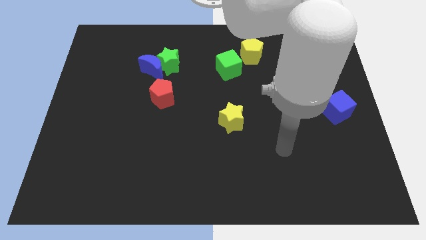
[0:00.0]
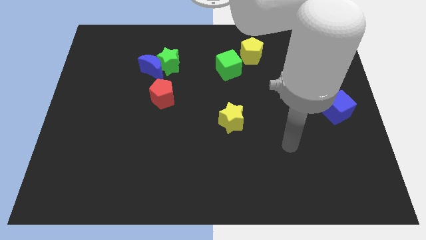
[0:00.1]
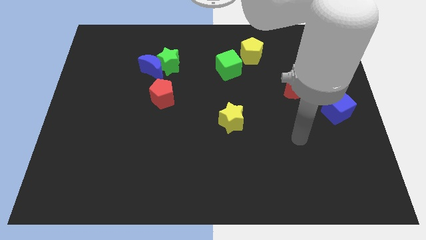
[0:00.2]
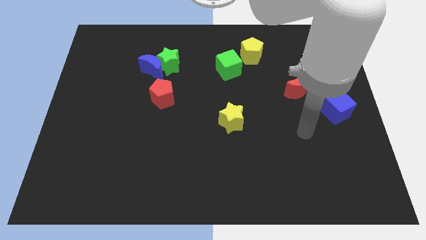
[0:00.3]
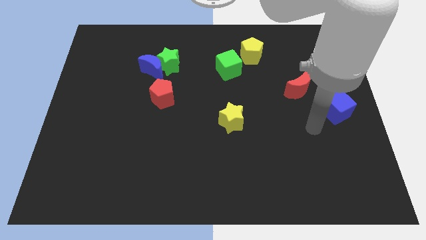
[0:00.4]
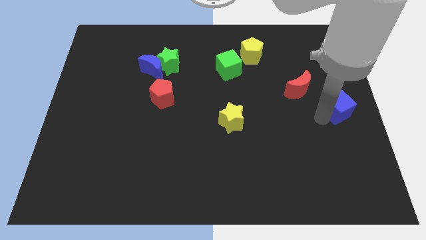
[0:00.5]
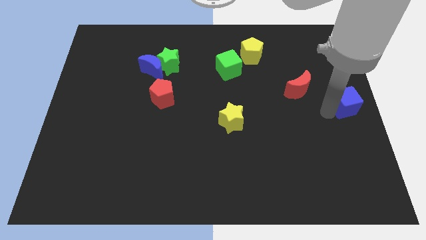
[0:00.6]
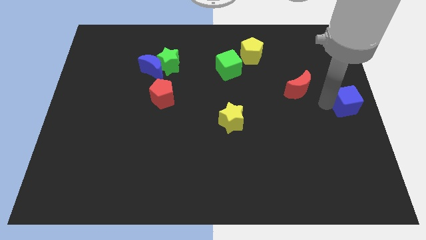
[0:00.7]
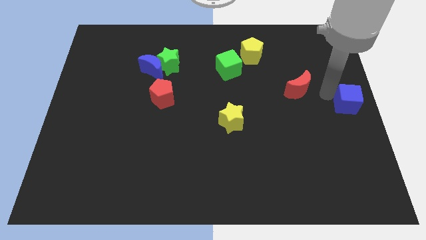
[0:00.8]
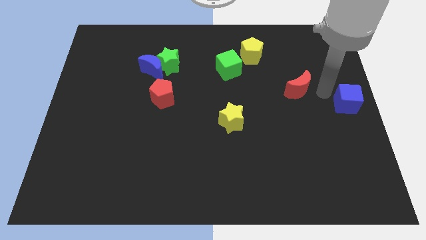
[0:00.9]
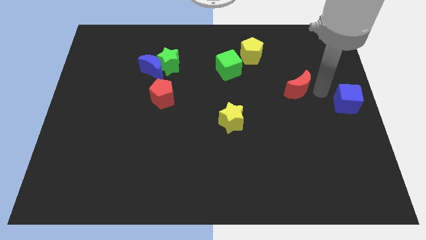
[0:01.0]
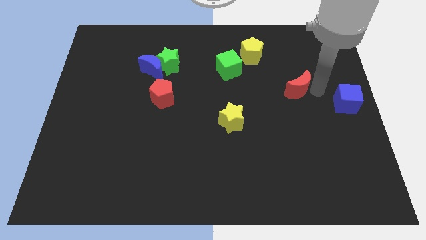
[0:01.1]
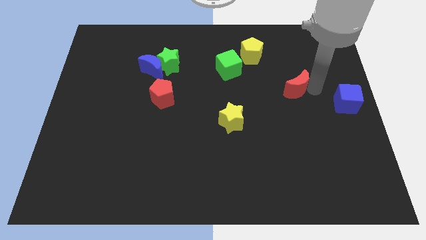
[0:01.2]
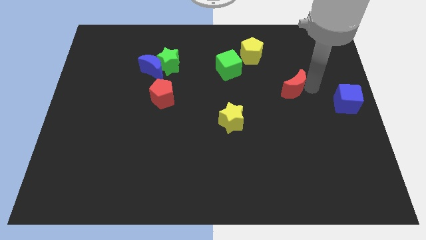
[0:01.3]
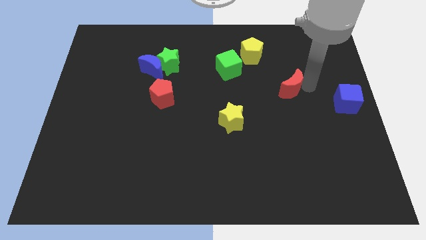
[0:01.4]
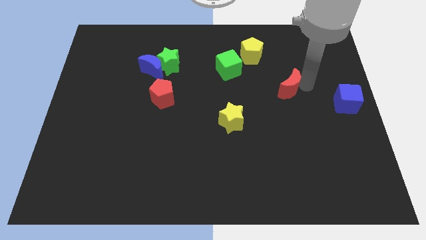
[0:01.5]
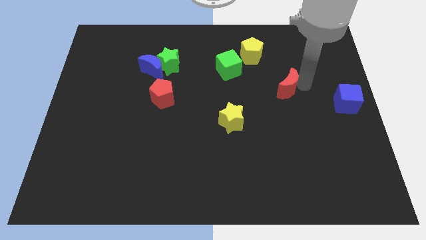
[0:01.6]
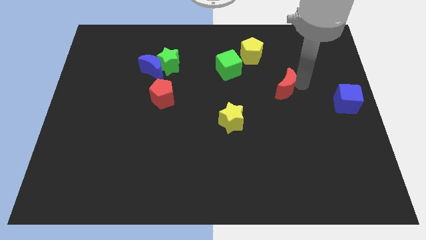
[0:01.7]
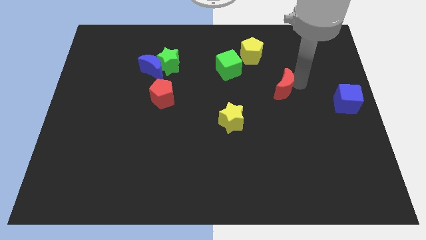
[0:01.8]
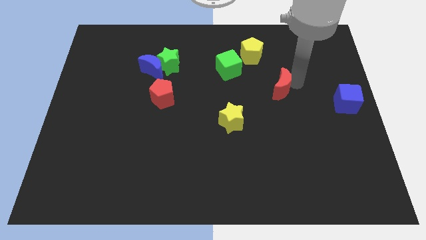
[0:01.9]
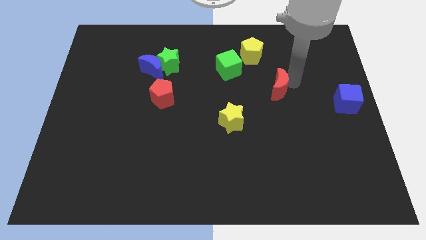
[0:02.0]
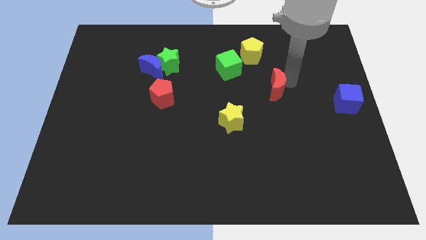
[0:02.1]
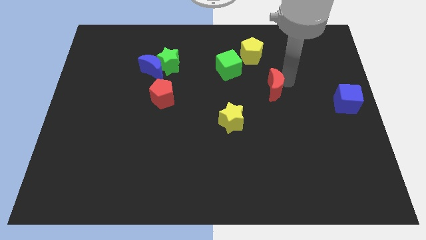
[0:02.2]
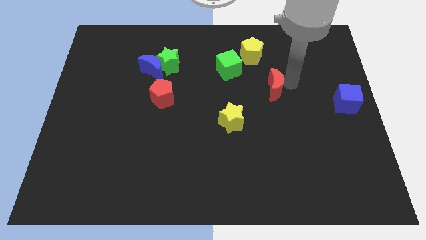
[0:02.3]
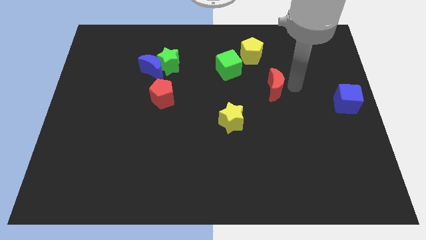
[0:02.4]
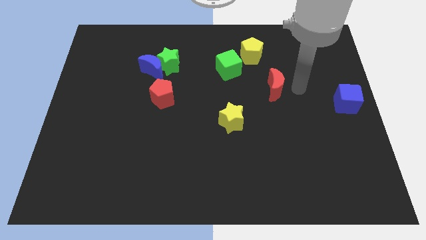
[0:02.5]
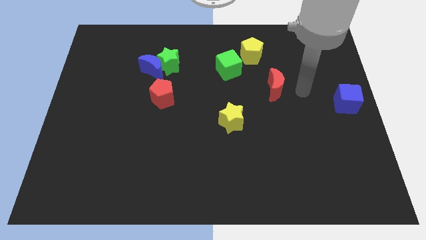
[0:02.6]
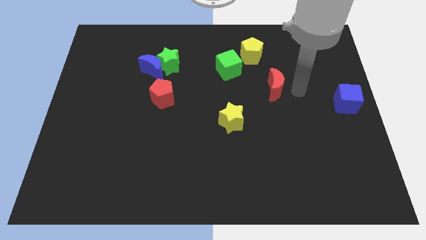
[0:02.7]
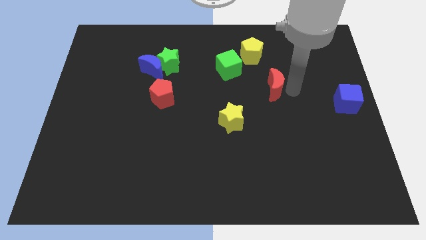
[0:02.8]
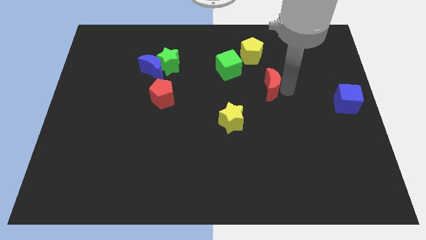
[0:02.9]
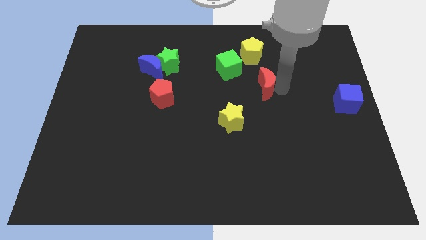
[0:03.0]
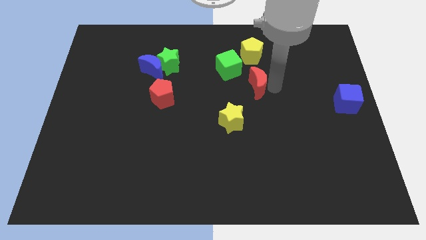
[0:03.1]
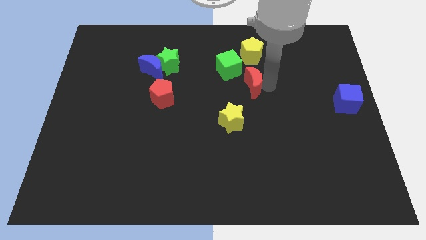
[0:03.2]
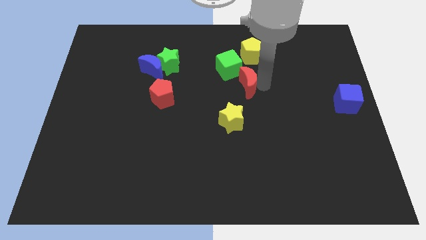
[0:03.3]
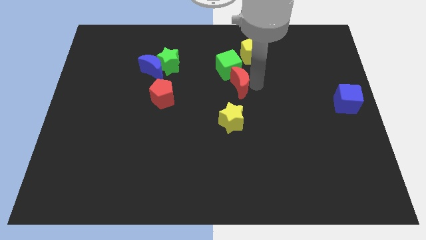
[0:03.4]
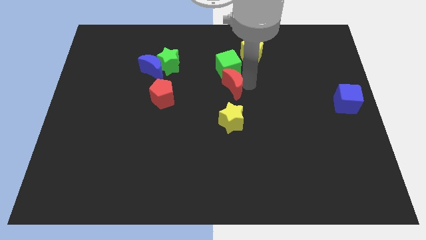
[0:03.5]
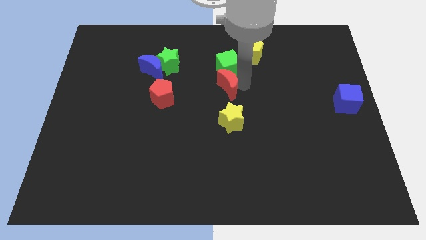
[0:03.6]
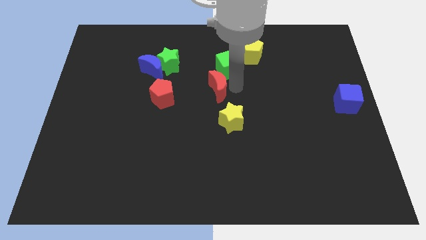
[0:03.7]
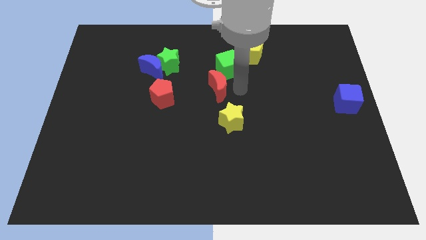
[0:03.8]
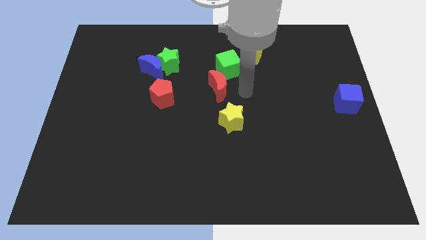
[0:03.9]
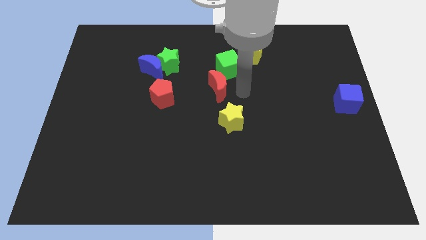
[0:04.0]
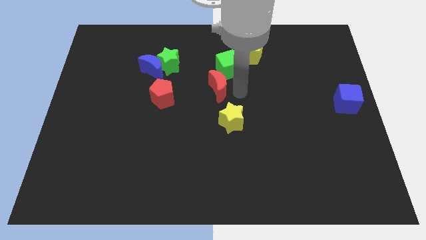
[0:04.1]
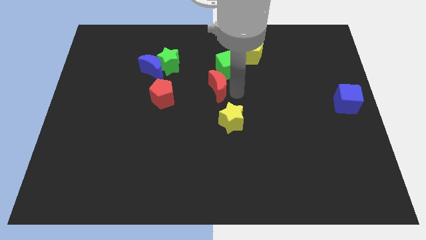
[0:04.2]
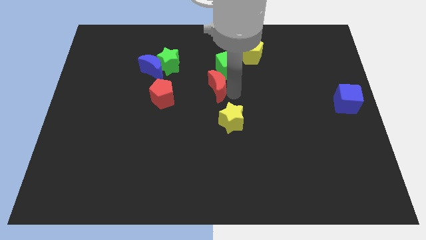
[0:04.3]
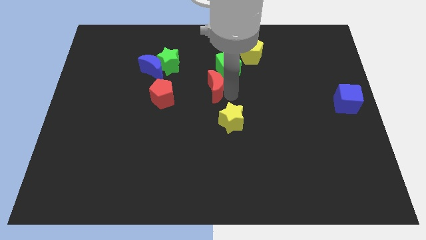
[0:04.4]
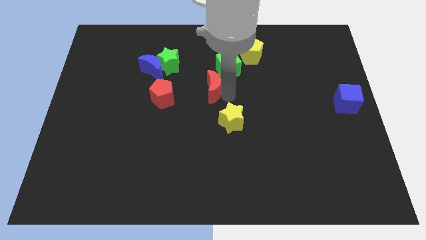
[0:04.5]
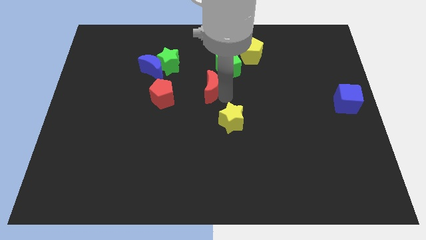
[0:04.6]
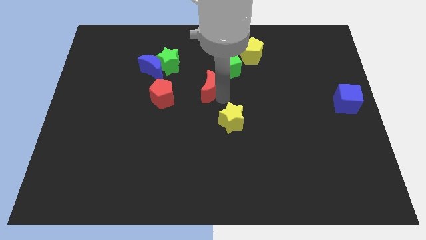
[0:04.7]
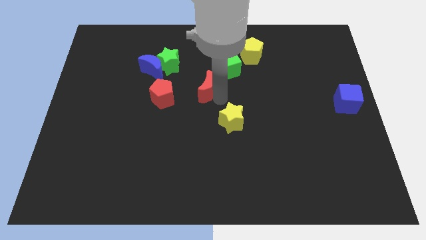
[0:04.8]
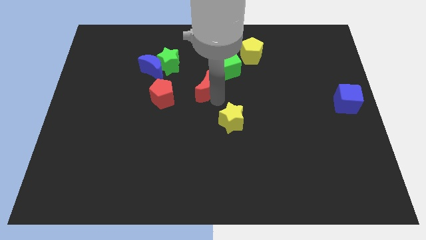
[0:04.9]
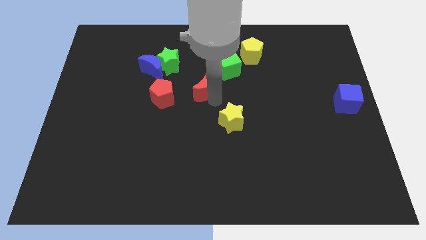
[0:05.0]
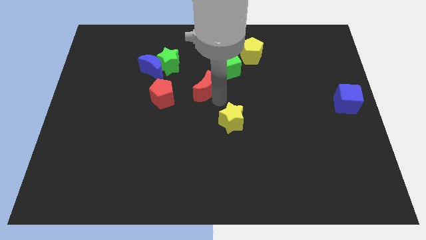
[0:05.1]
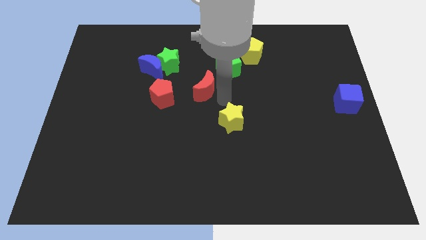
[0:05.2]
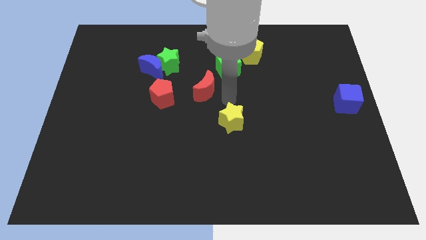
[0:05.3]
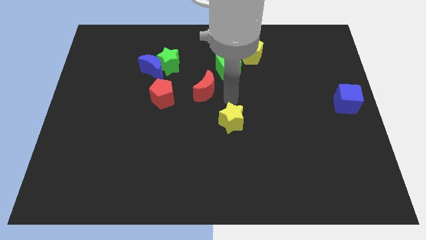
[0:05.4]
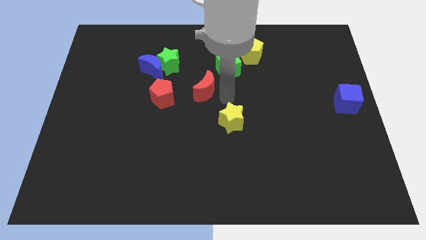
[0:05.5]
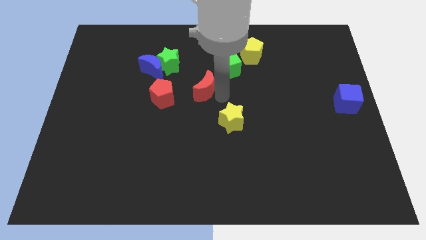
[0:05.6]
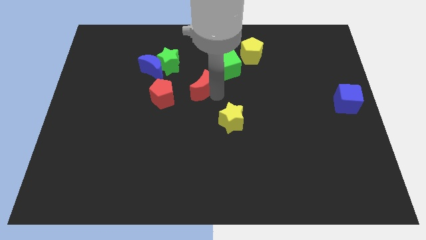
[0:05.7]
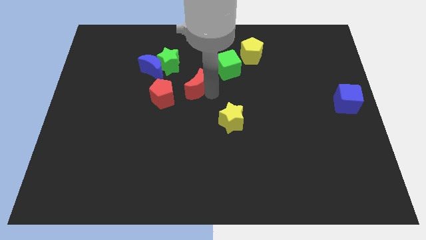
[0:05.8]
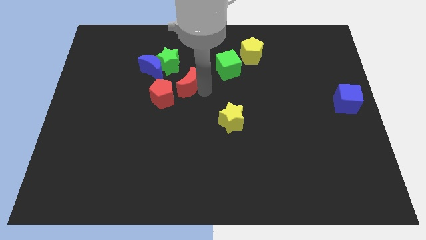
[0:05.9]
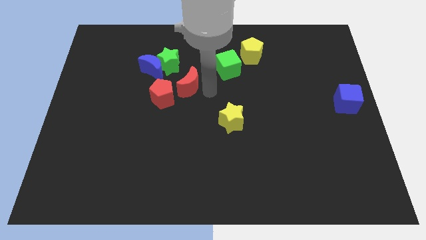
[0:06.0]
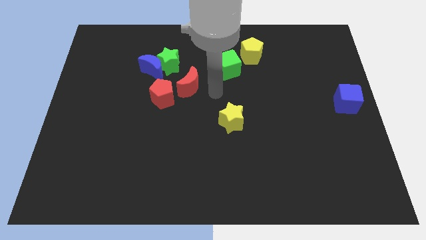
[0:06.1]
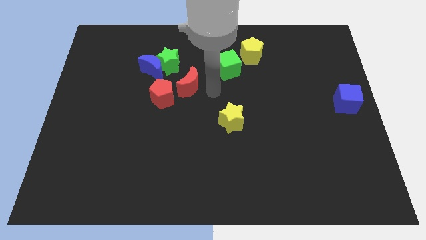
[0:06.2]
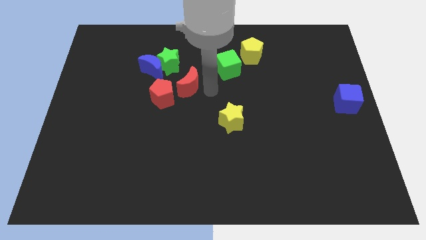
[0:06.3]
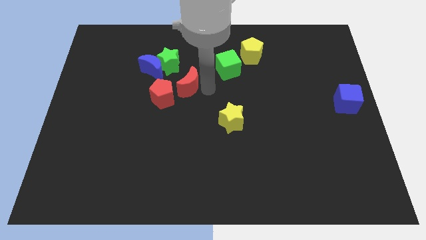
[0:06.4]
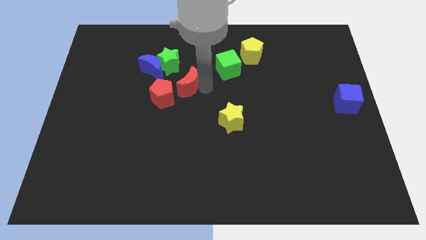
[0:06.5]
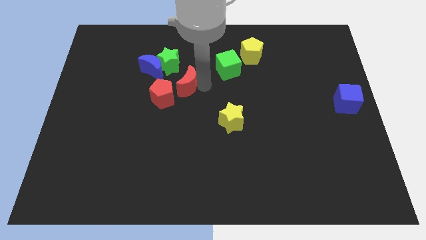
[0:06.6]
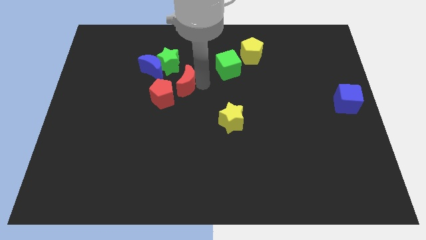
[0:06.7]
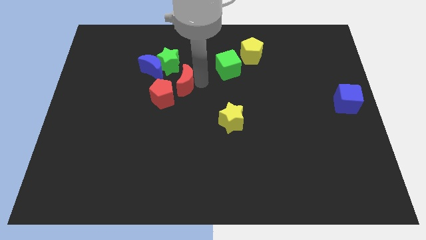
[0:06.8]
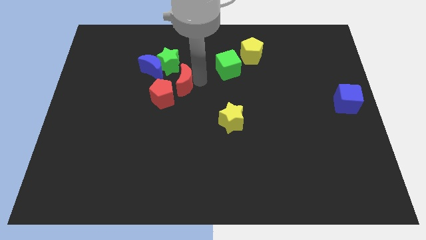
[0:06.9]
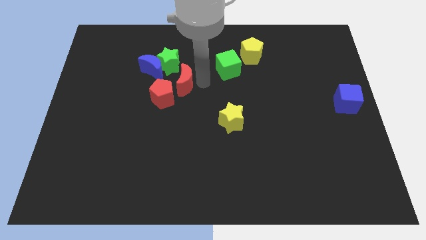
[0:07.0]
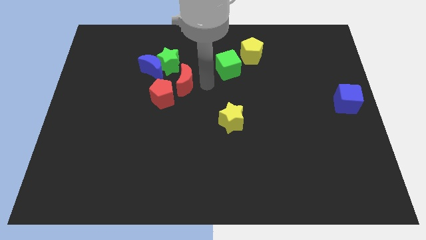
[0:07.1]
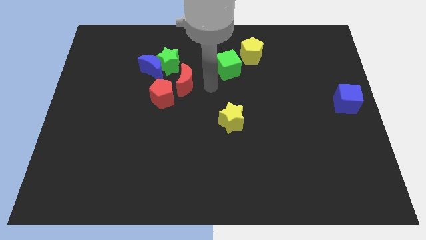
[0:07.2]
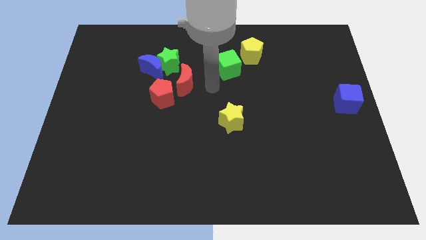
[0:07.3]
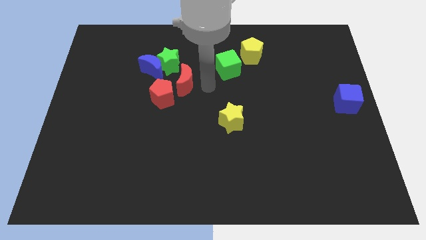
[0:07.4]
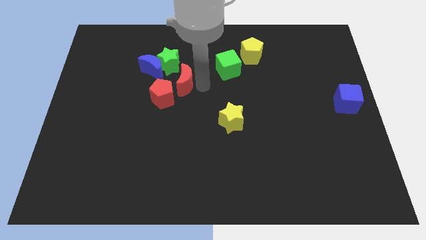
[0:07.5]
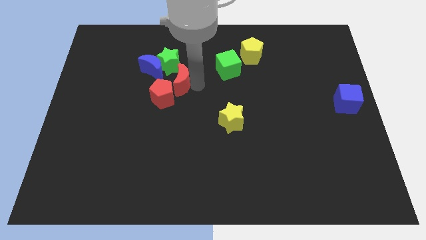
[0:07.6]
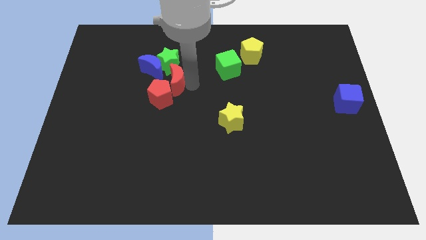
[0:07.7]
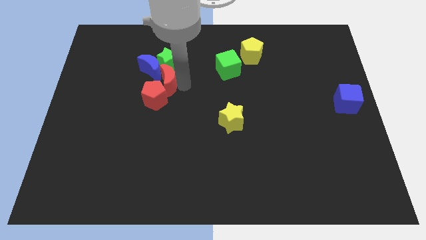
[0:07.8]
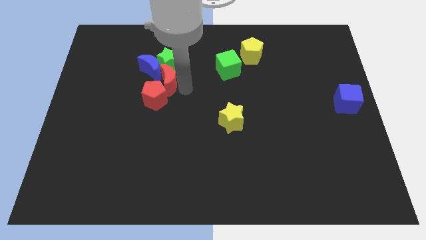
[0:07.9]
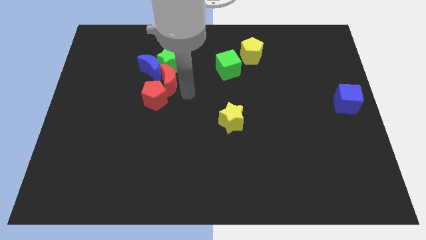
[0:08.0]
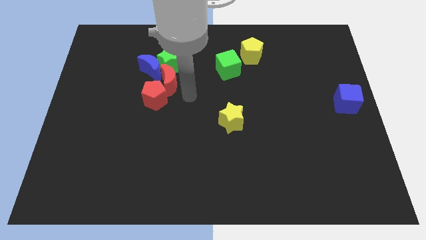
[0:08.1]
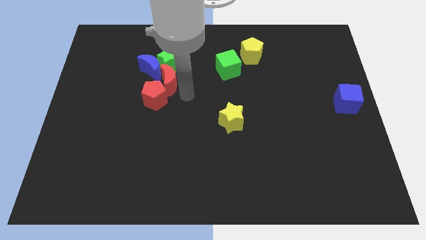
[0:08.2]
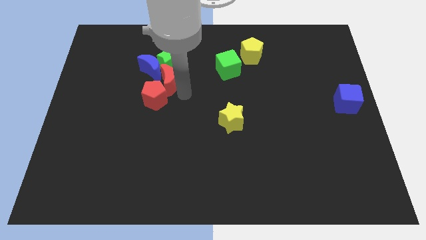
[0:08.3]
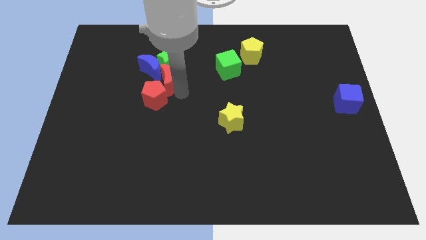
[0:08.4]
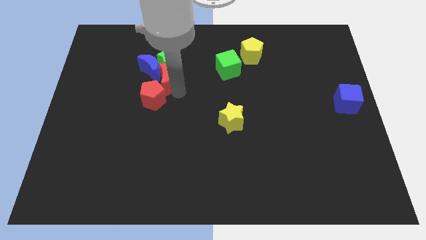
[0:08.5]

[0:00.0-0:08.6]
move the red moon to the blue moon
